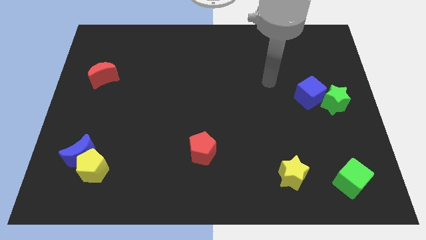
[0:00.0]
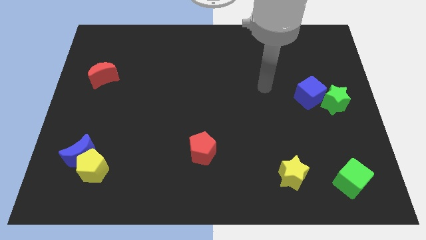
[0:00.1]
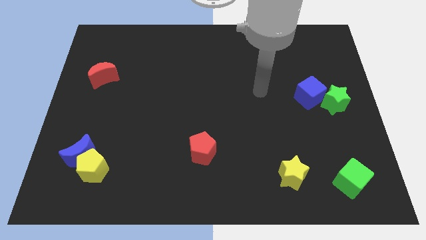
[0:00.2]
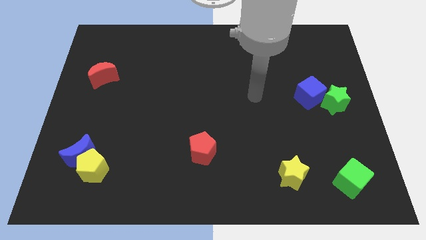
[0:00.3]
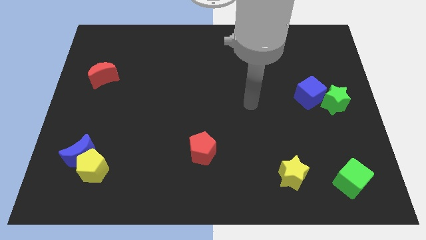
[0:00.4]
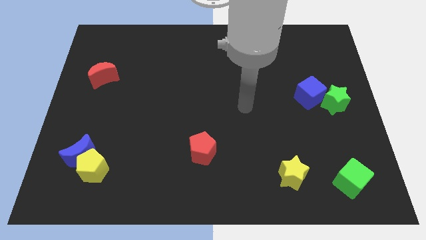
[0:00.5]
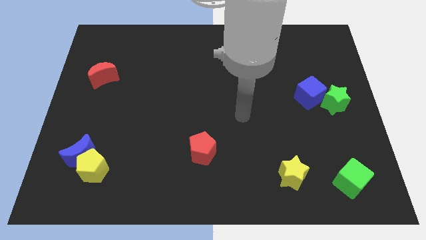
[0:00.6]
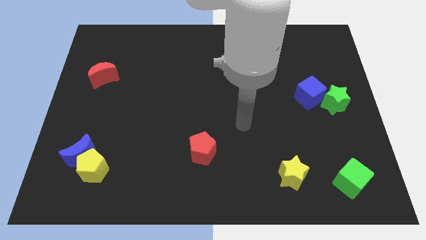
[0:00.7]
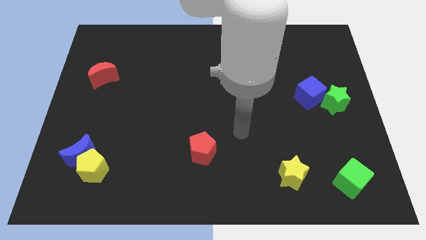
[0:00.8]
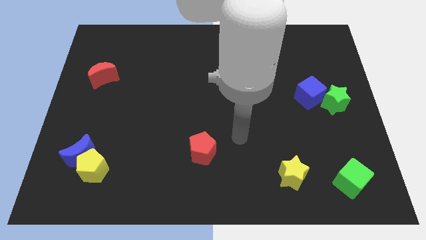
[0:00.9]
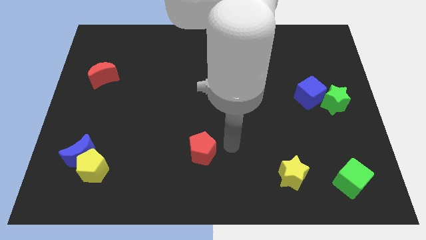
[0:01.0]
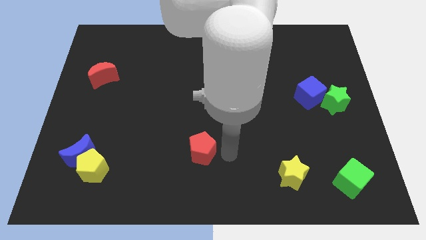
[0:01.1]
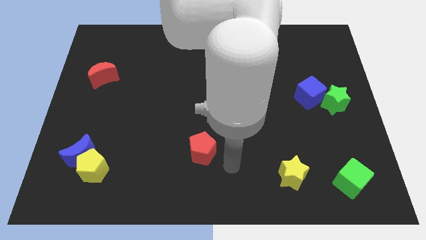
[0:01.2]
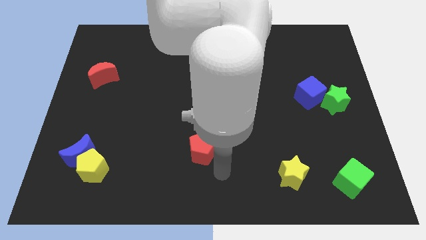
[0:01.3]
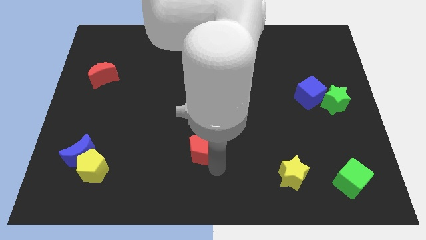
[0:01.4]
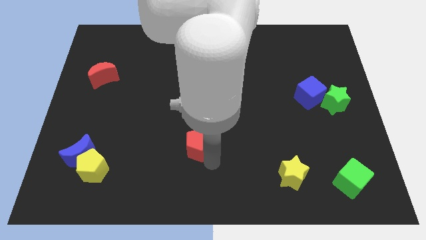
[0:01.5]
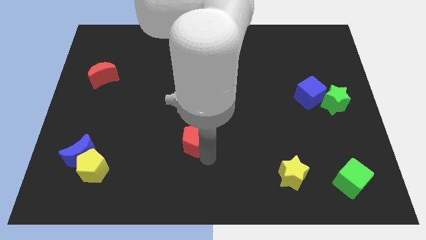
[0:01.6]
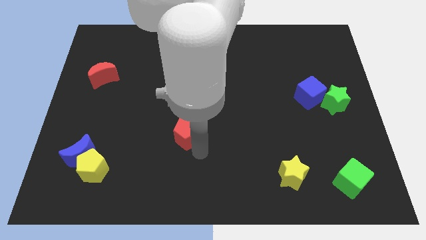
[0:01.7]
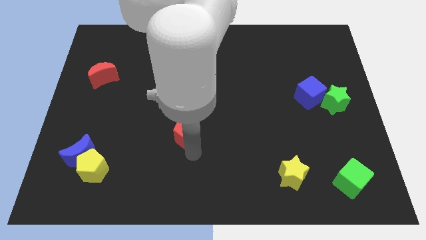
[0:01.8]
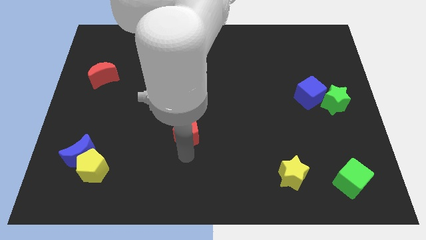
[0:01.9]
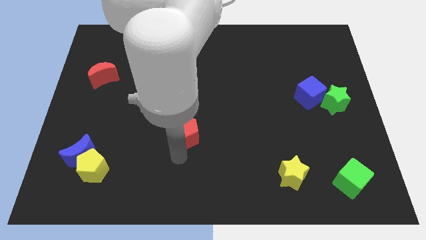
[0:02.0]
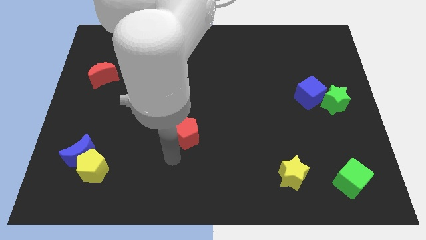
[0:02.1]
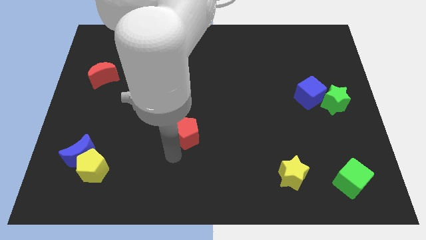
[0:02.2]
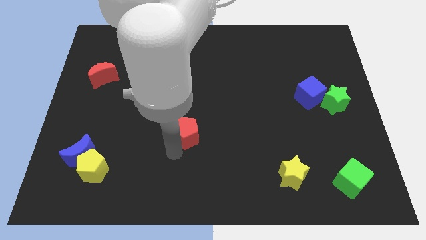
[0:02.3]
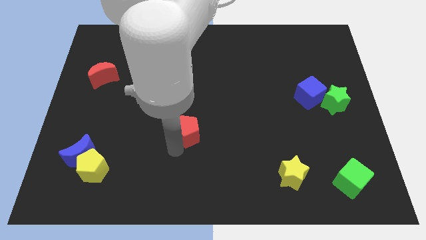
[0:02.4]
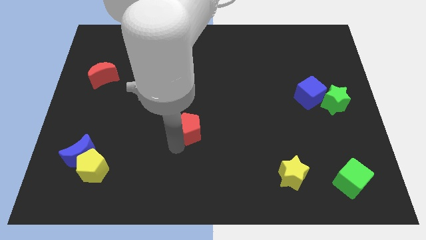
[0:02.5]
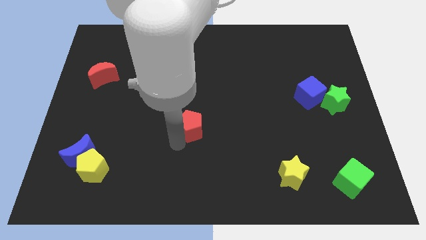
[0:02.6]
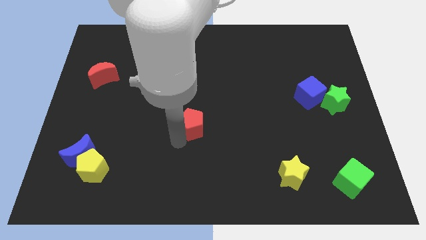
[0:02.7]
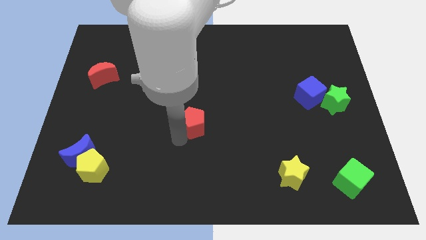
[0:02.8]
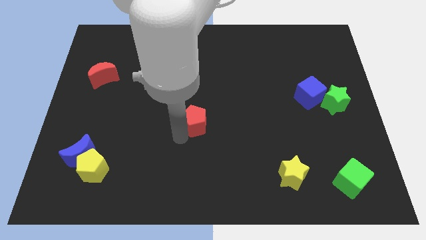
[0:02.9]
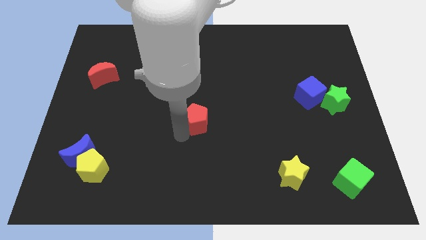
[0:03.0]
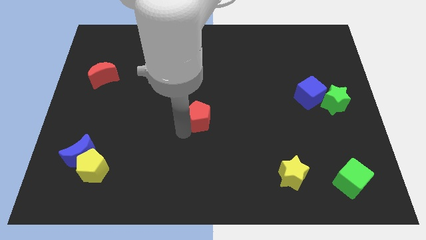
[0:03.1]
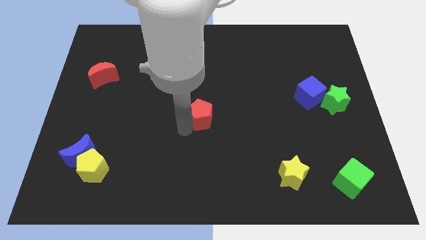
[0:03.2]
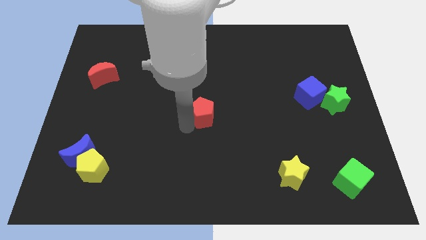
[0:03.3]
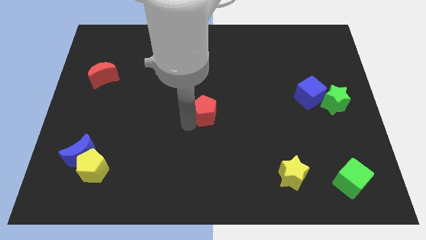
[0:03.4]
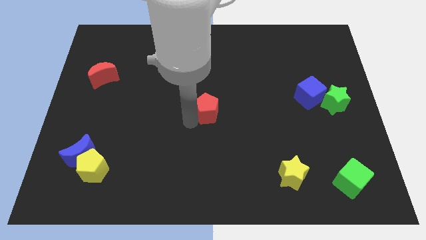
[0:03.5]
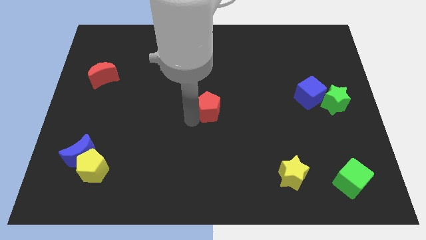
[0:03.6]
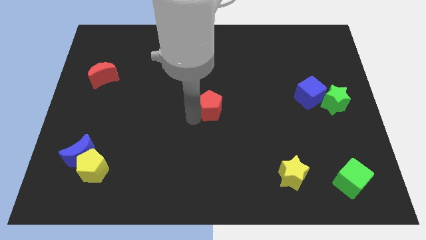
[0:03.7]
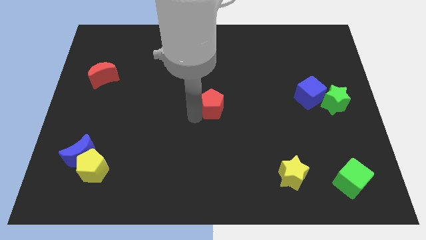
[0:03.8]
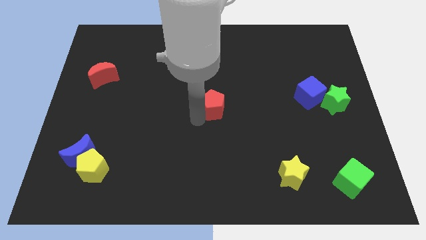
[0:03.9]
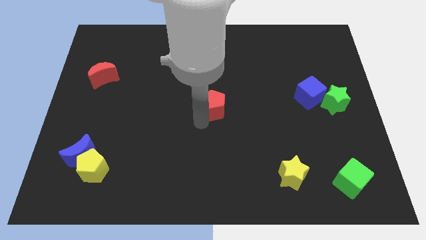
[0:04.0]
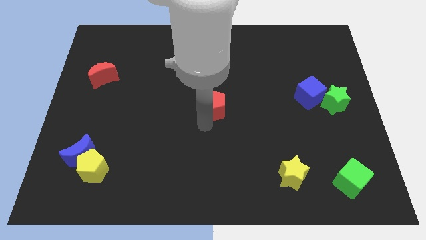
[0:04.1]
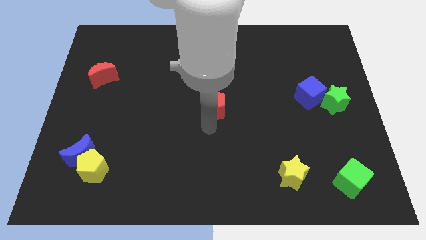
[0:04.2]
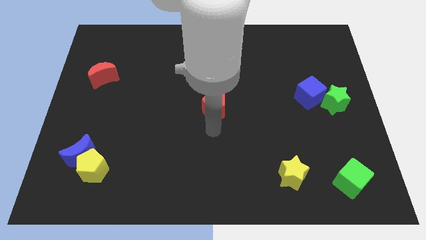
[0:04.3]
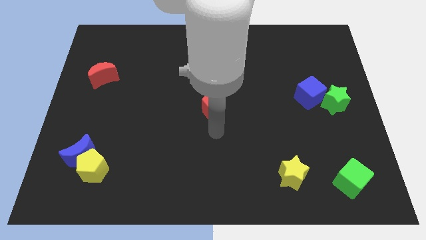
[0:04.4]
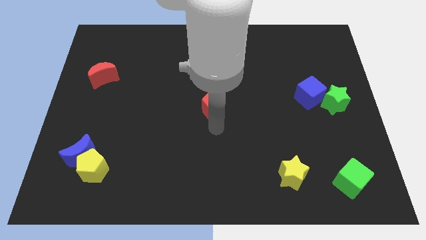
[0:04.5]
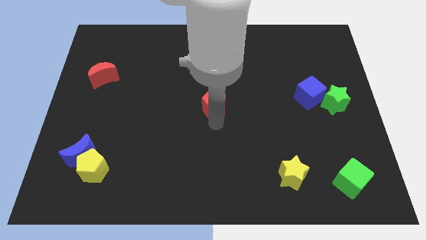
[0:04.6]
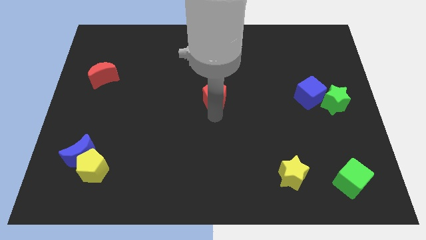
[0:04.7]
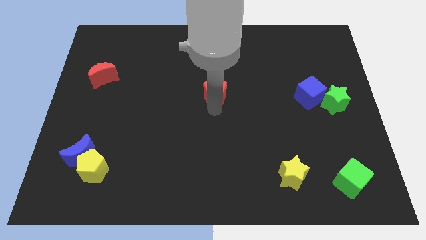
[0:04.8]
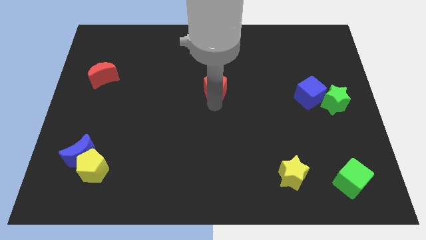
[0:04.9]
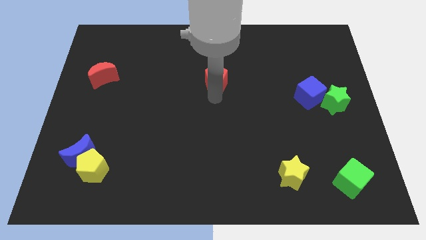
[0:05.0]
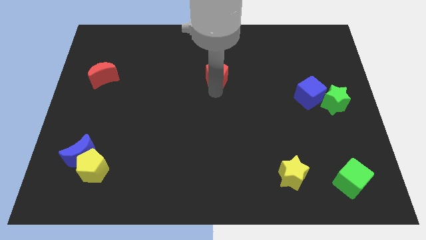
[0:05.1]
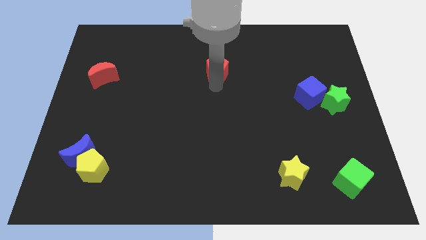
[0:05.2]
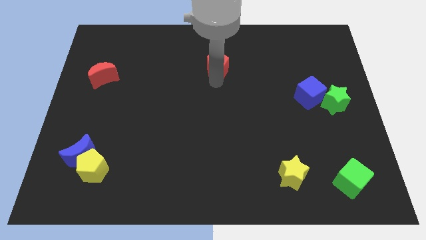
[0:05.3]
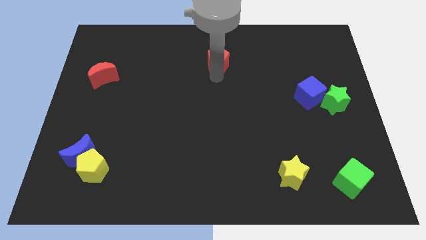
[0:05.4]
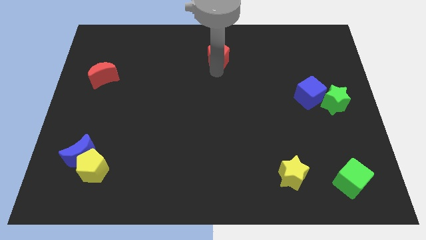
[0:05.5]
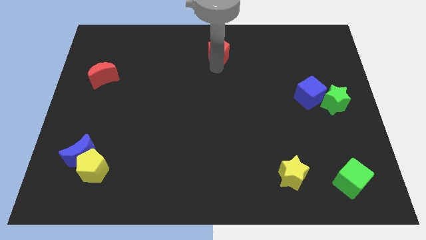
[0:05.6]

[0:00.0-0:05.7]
move the red pentagon to the towards your base
